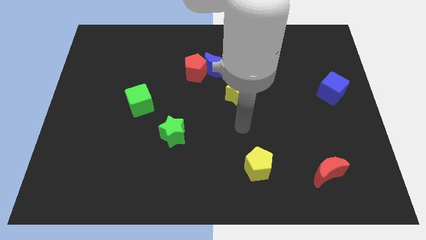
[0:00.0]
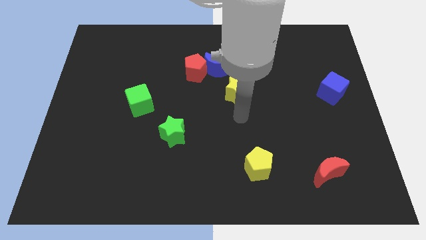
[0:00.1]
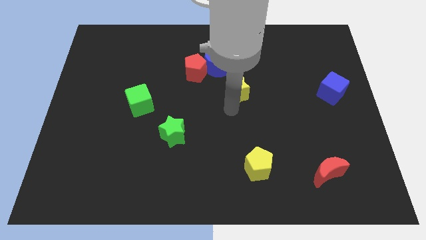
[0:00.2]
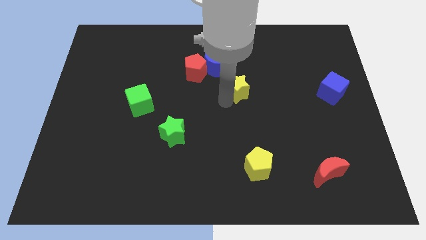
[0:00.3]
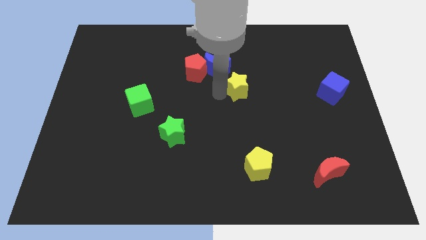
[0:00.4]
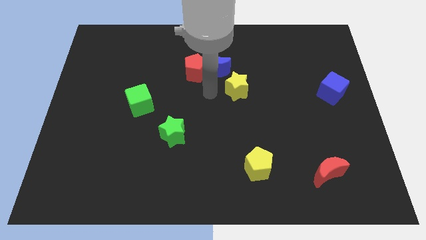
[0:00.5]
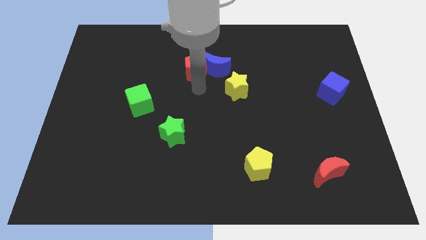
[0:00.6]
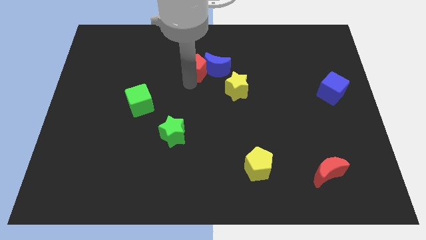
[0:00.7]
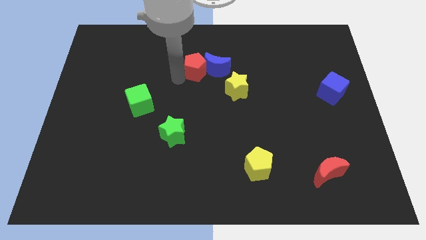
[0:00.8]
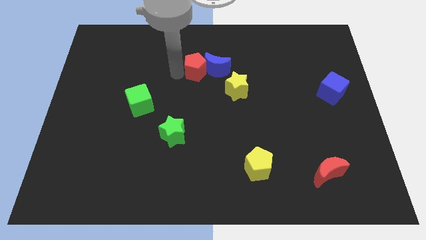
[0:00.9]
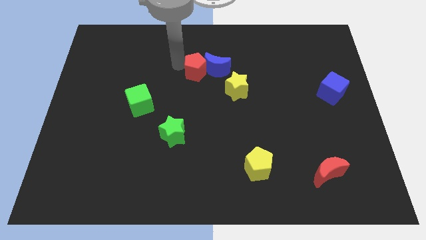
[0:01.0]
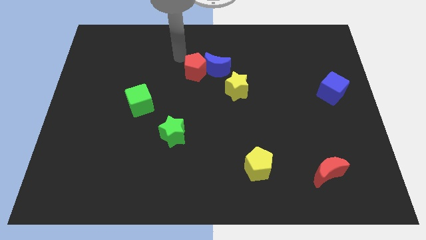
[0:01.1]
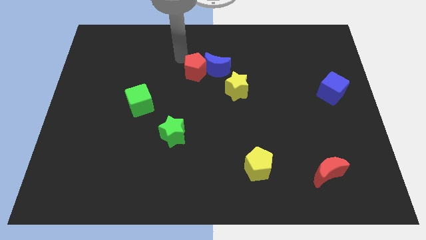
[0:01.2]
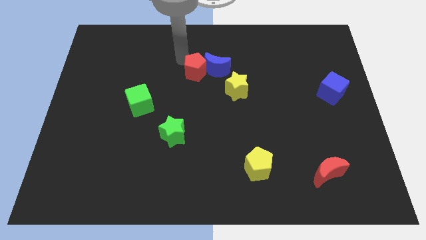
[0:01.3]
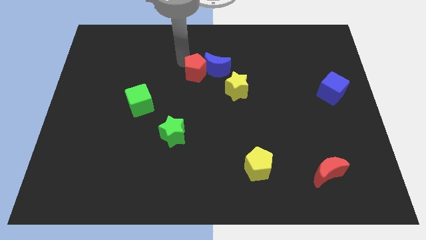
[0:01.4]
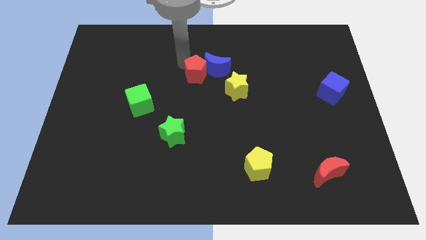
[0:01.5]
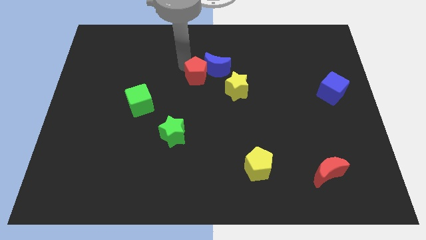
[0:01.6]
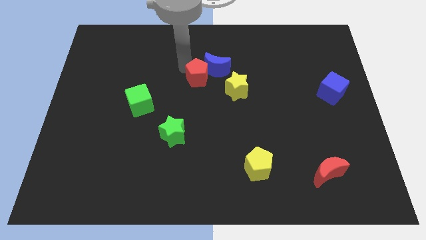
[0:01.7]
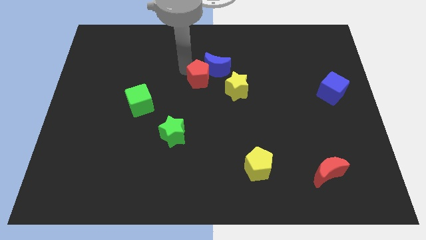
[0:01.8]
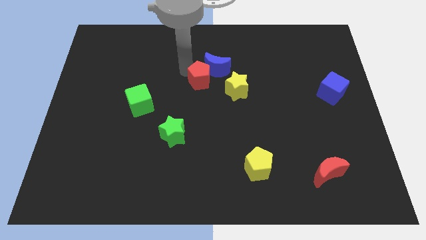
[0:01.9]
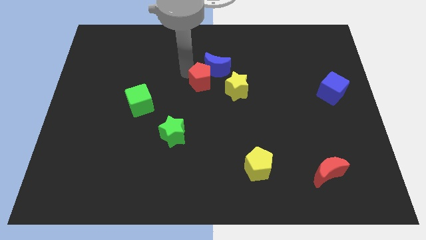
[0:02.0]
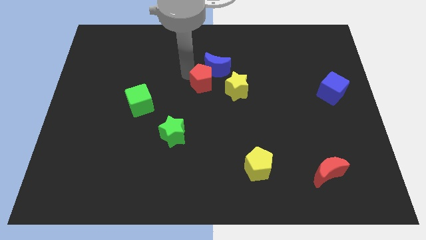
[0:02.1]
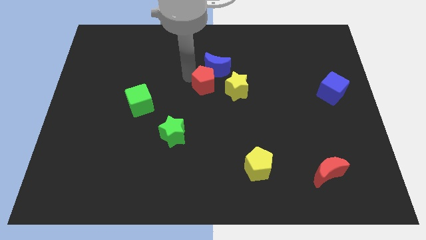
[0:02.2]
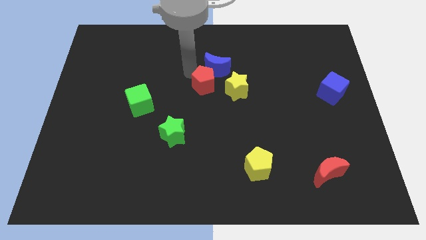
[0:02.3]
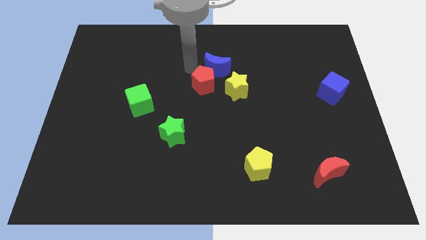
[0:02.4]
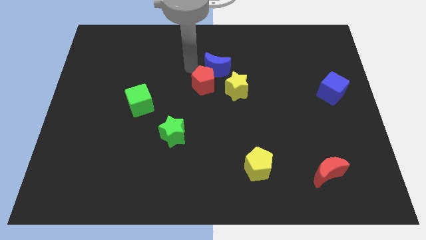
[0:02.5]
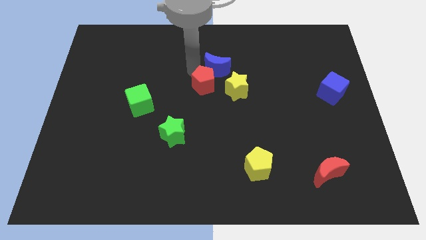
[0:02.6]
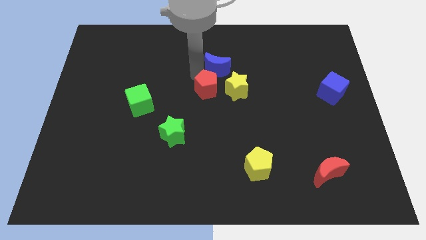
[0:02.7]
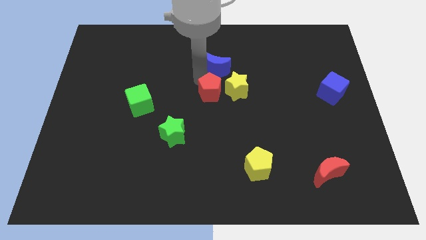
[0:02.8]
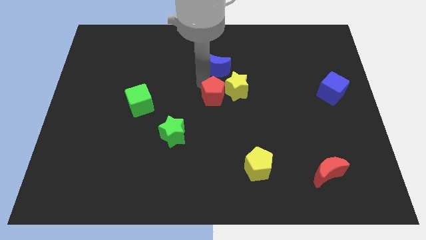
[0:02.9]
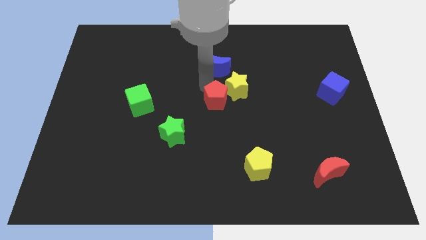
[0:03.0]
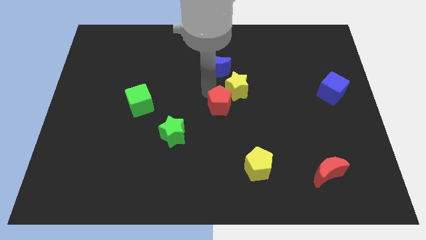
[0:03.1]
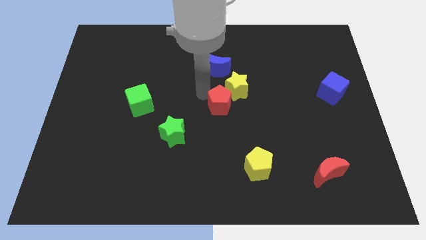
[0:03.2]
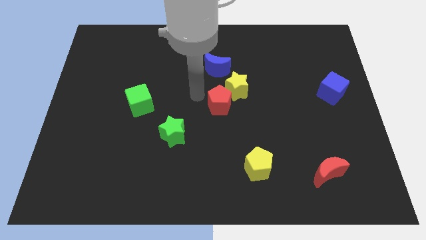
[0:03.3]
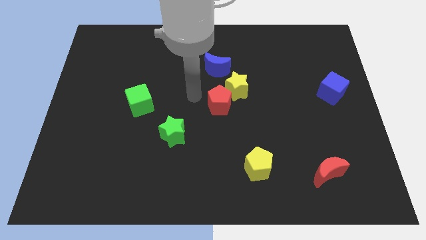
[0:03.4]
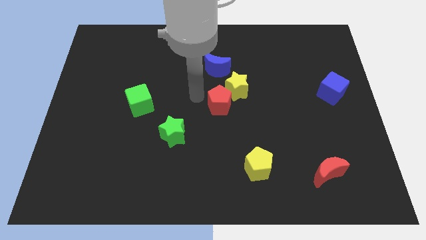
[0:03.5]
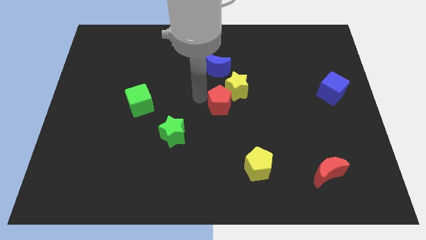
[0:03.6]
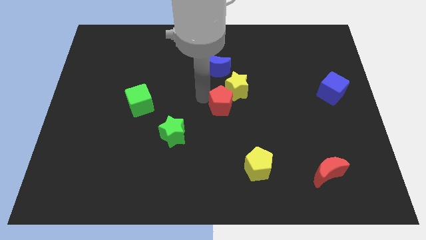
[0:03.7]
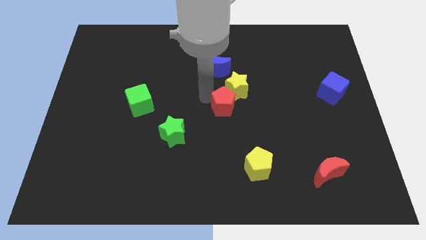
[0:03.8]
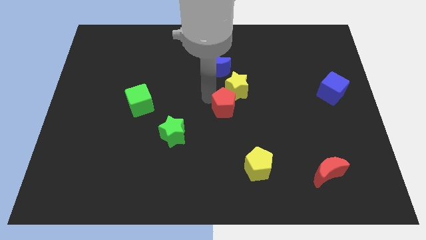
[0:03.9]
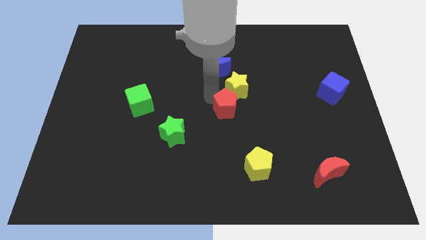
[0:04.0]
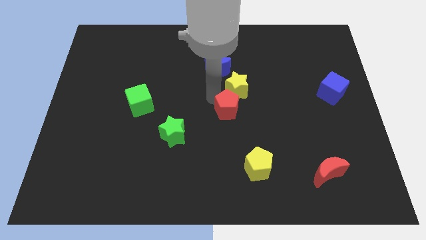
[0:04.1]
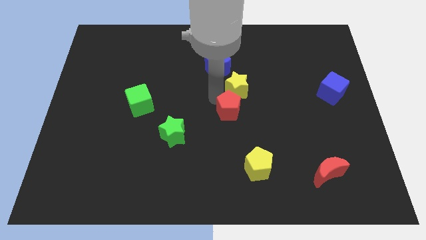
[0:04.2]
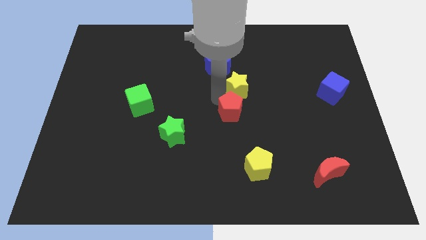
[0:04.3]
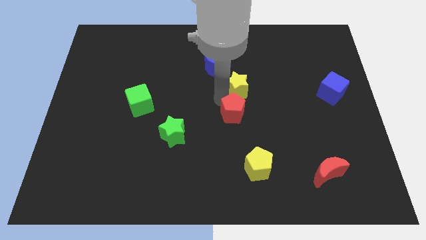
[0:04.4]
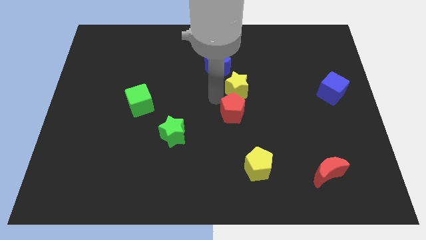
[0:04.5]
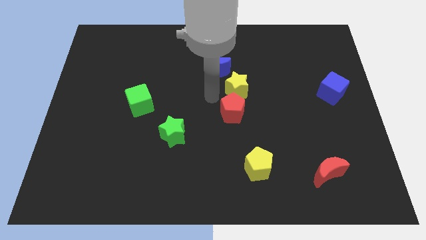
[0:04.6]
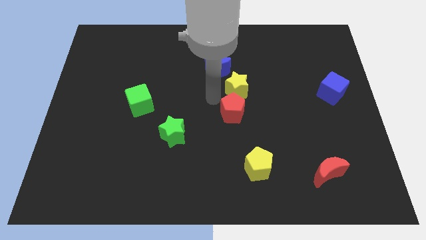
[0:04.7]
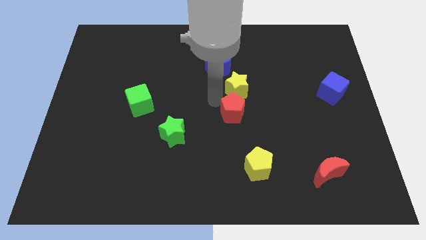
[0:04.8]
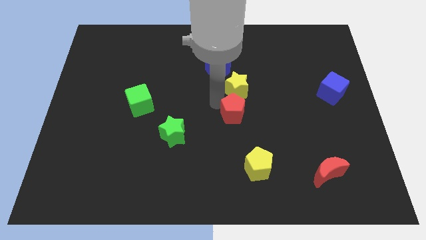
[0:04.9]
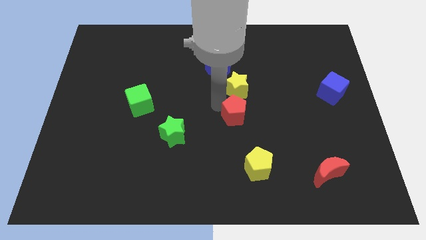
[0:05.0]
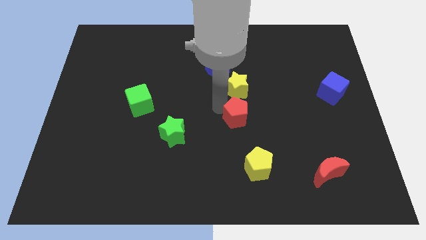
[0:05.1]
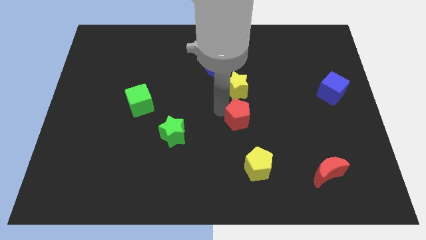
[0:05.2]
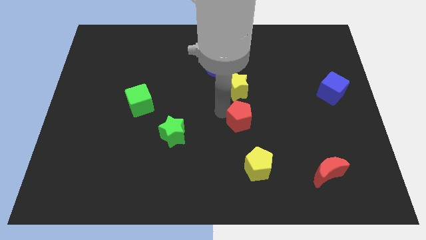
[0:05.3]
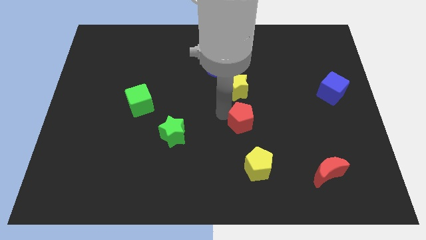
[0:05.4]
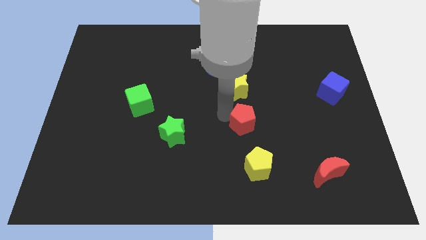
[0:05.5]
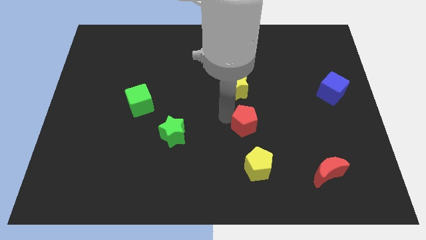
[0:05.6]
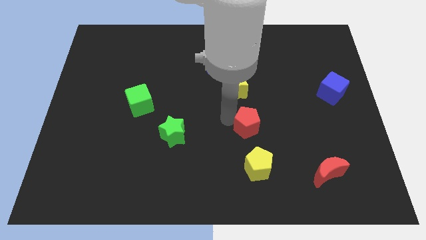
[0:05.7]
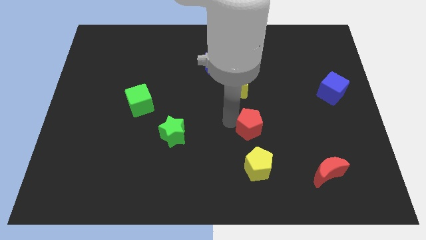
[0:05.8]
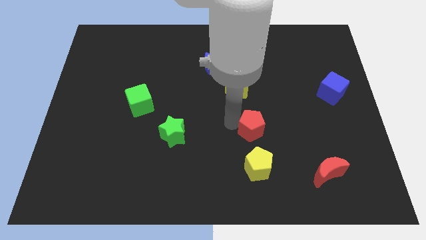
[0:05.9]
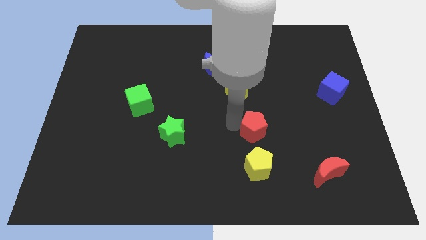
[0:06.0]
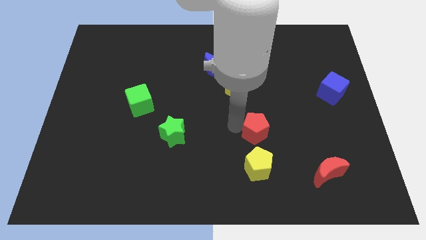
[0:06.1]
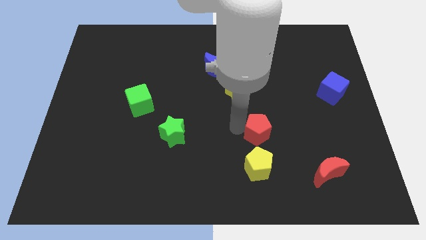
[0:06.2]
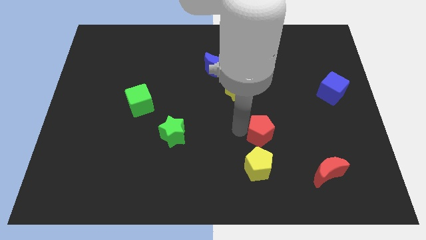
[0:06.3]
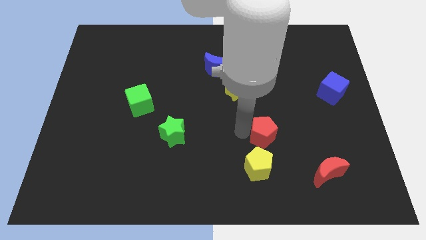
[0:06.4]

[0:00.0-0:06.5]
slide the red pentagon to the top right of the yellow pentagon

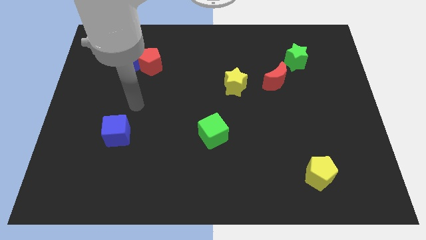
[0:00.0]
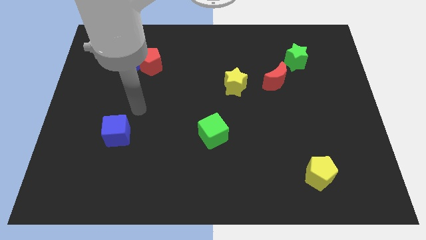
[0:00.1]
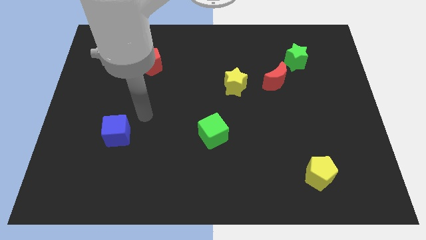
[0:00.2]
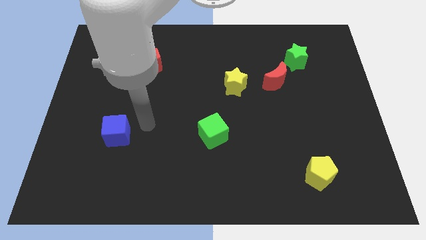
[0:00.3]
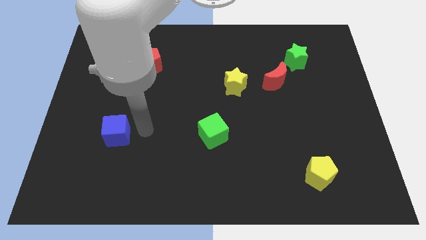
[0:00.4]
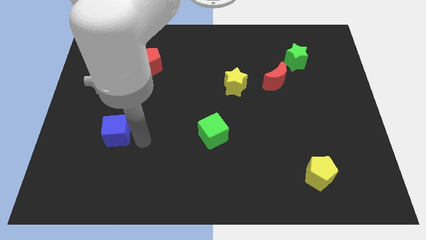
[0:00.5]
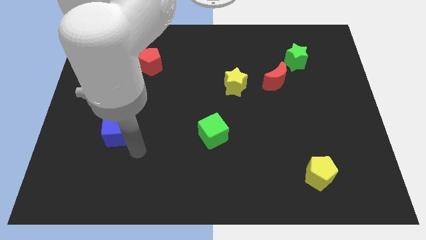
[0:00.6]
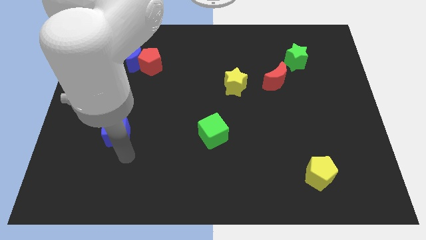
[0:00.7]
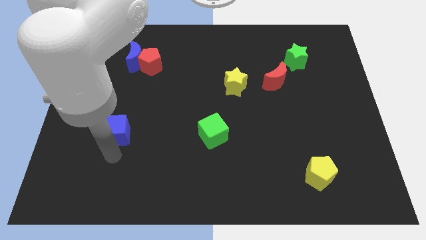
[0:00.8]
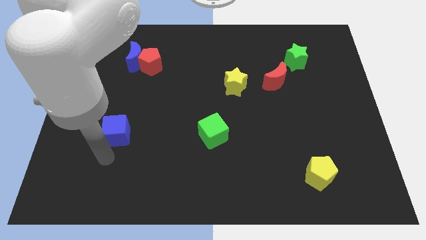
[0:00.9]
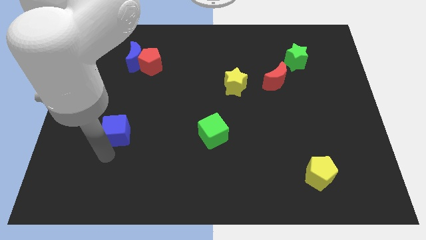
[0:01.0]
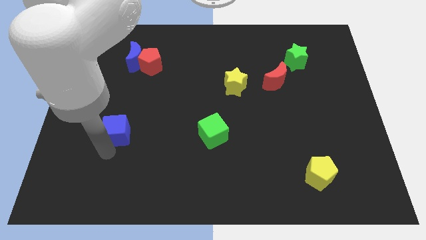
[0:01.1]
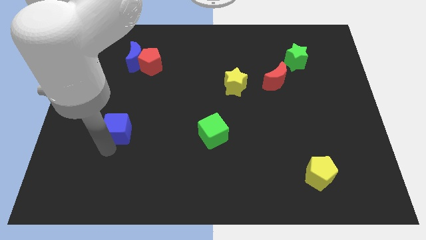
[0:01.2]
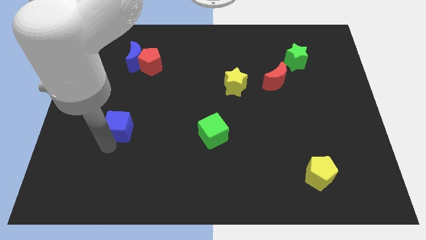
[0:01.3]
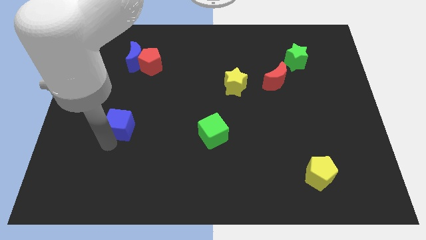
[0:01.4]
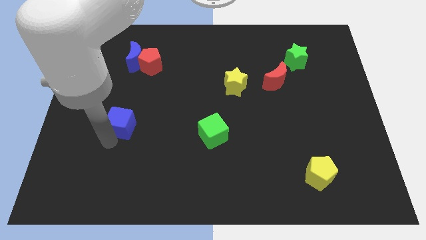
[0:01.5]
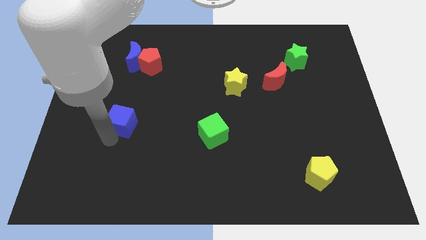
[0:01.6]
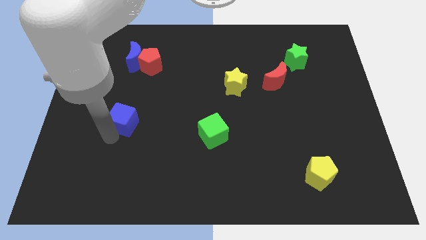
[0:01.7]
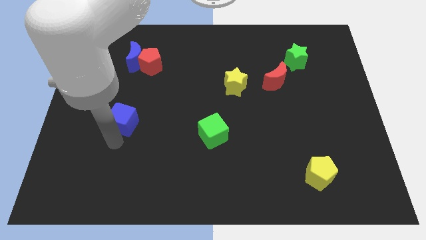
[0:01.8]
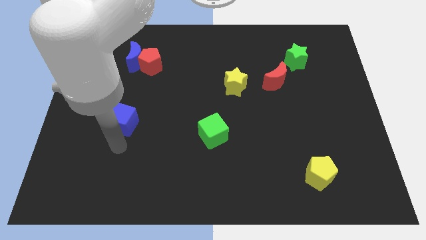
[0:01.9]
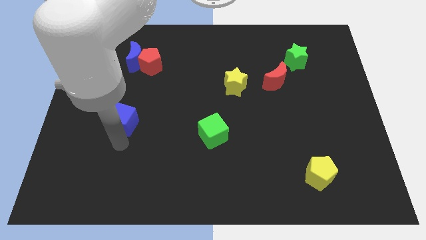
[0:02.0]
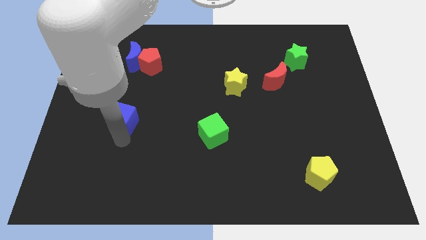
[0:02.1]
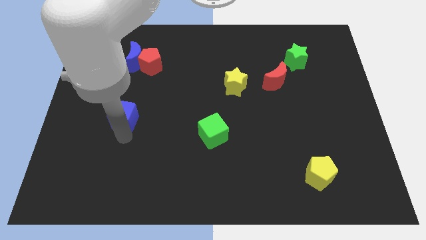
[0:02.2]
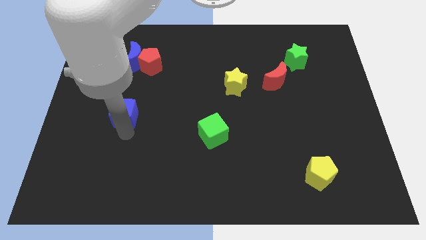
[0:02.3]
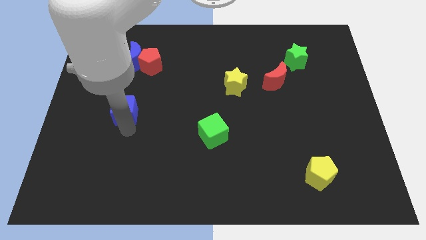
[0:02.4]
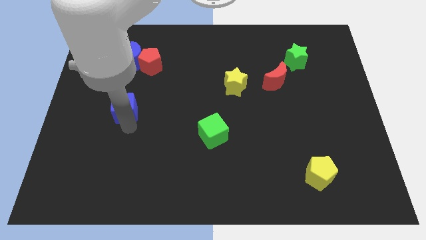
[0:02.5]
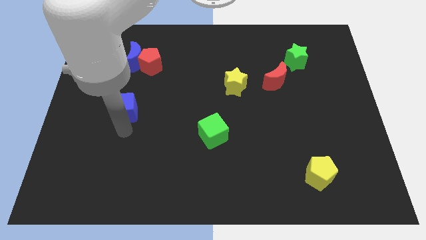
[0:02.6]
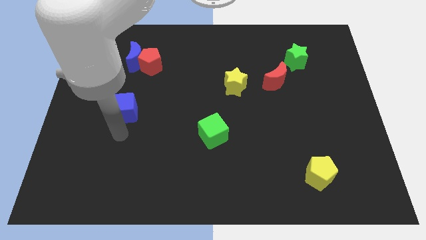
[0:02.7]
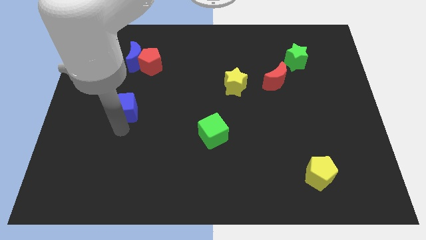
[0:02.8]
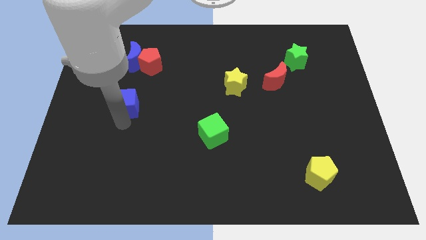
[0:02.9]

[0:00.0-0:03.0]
move the blue cube to the bottom of the blue moon
